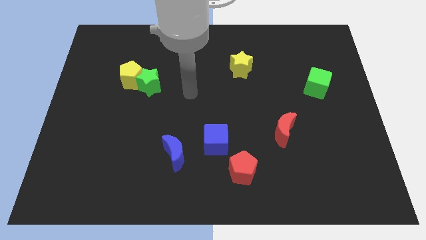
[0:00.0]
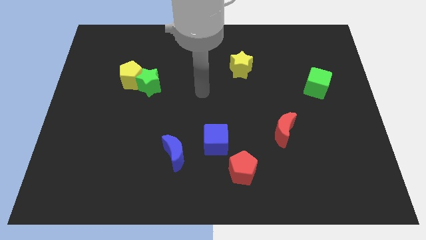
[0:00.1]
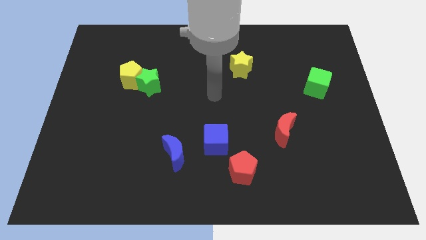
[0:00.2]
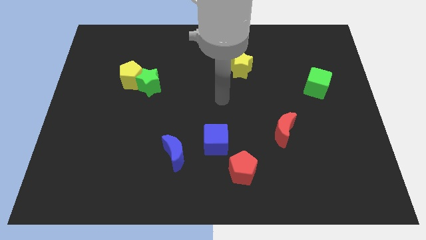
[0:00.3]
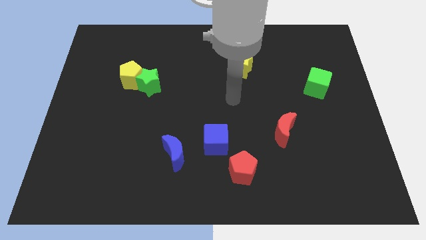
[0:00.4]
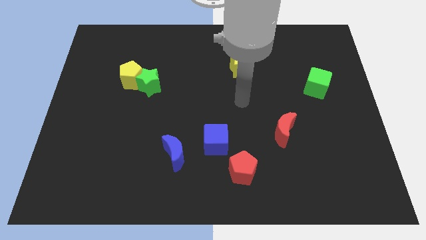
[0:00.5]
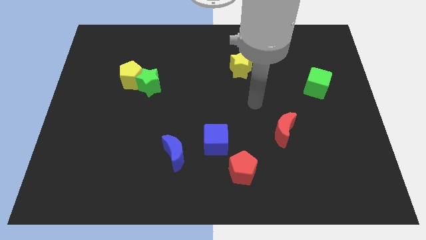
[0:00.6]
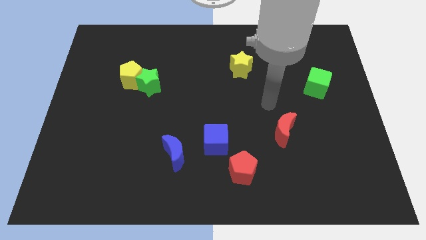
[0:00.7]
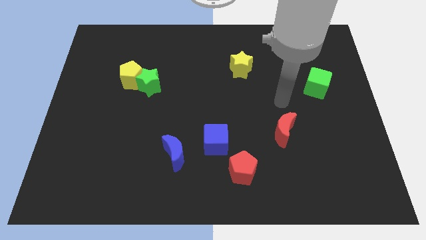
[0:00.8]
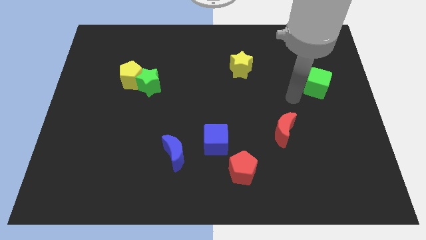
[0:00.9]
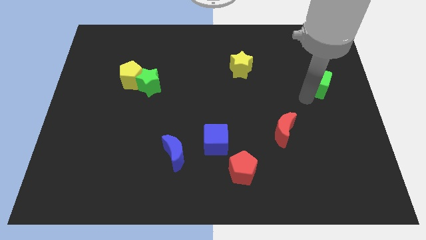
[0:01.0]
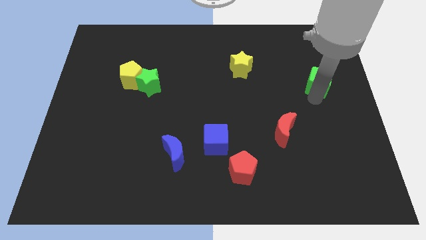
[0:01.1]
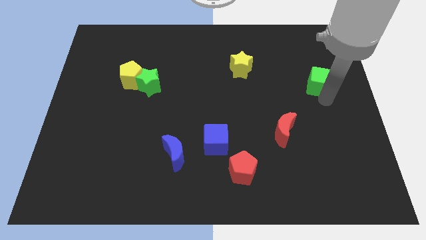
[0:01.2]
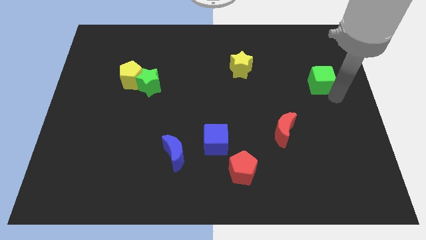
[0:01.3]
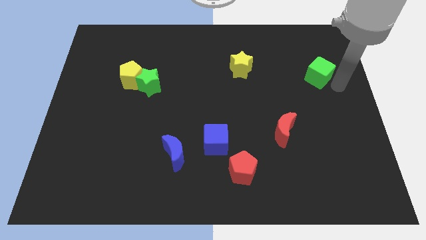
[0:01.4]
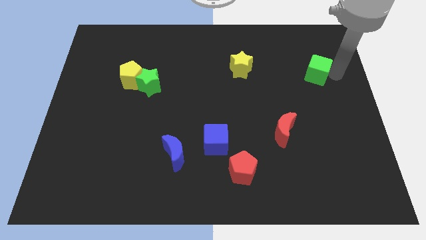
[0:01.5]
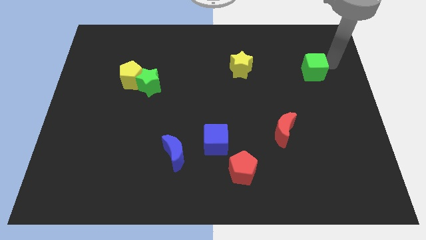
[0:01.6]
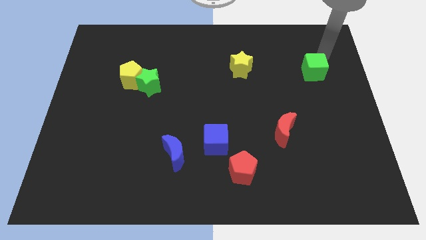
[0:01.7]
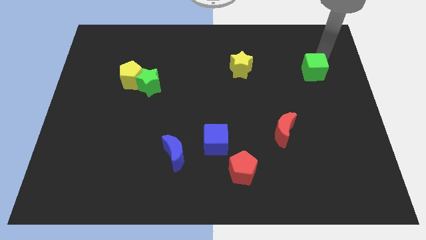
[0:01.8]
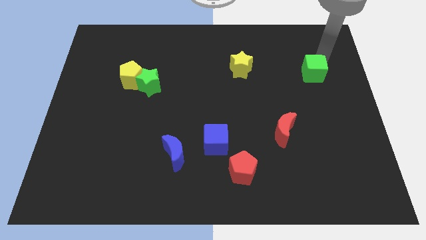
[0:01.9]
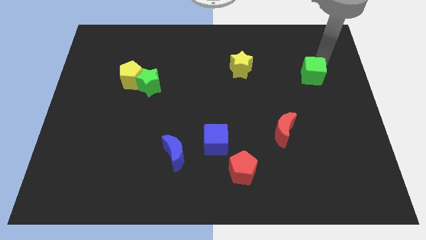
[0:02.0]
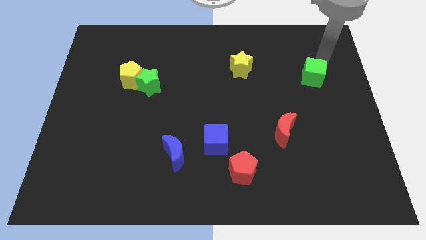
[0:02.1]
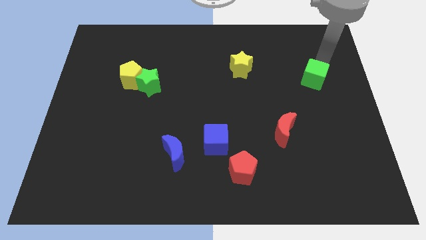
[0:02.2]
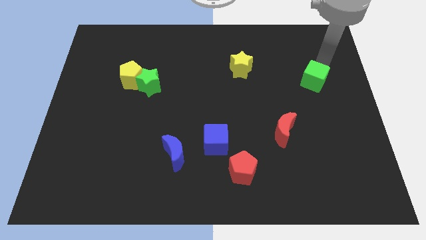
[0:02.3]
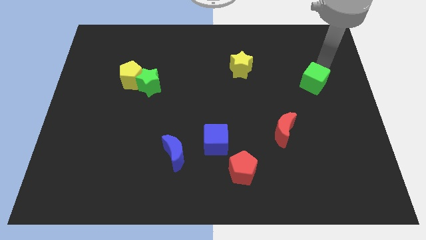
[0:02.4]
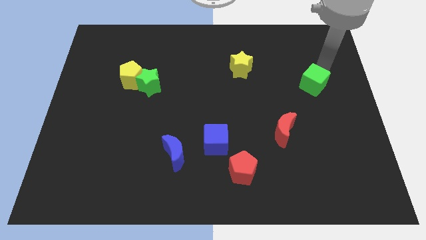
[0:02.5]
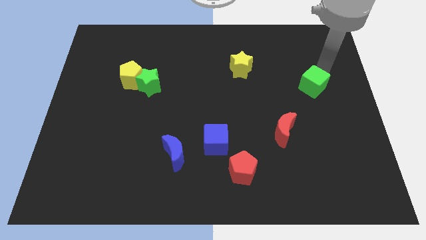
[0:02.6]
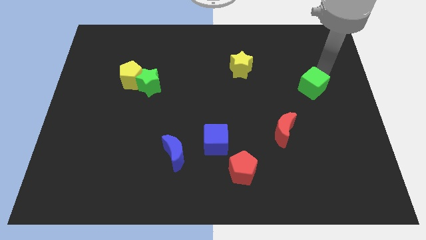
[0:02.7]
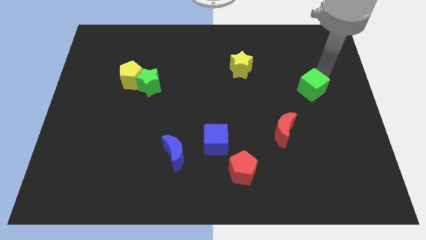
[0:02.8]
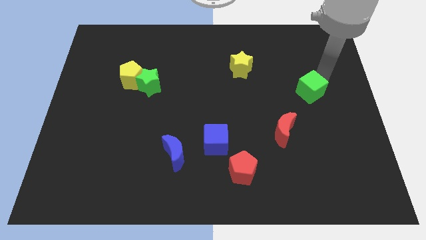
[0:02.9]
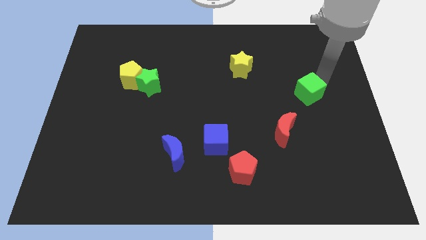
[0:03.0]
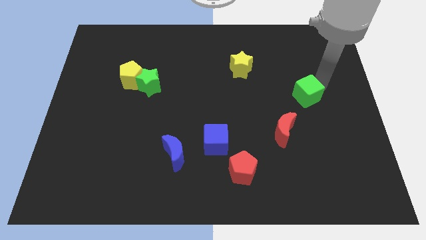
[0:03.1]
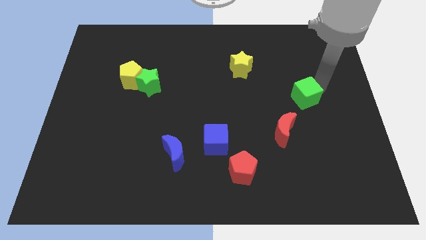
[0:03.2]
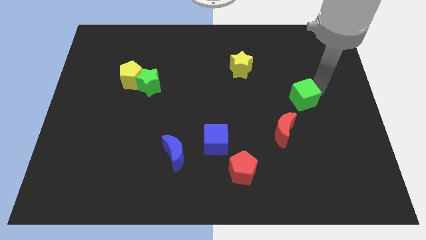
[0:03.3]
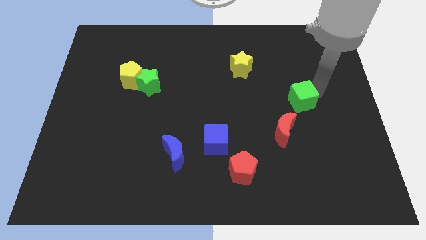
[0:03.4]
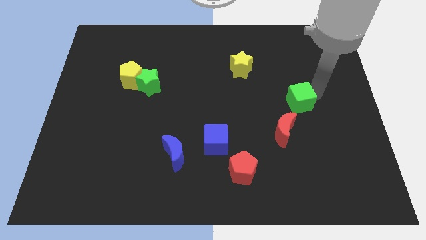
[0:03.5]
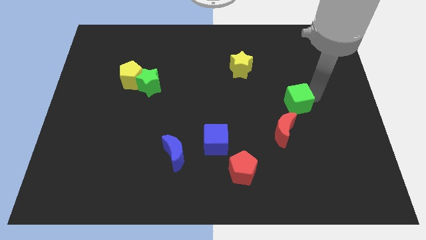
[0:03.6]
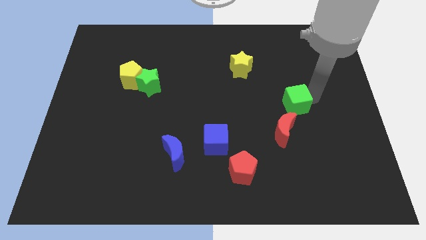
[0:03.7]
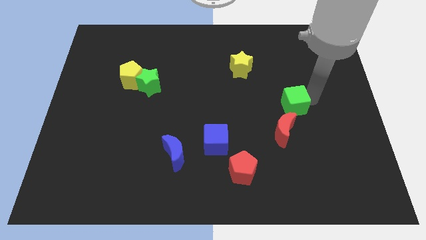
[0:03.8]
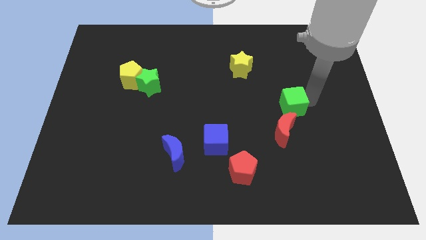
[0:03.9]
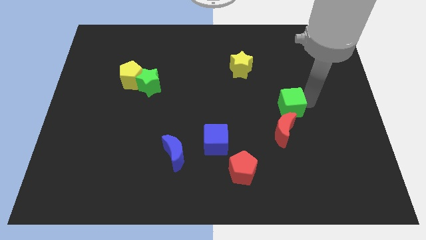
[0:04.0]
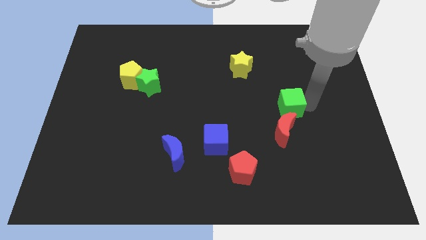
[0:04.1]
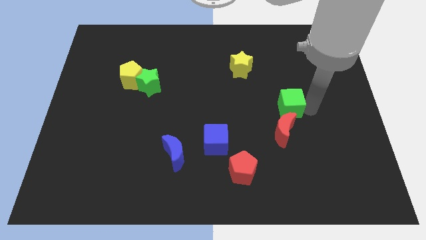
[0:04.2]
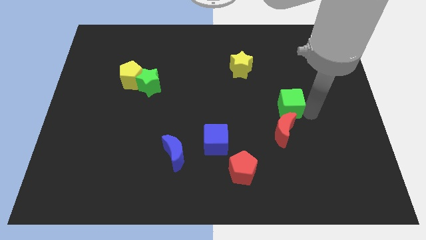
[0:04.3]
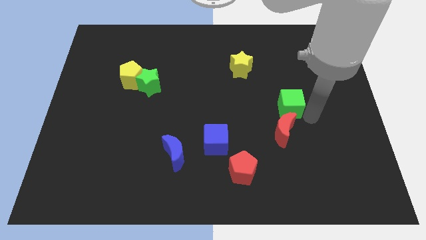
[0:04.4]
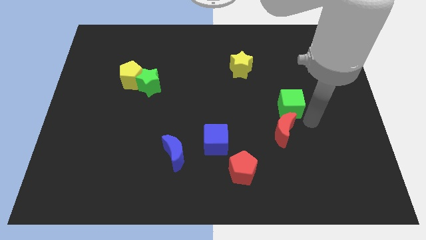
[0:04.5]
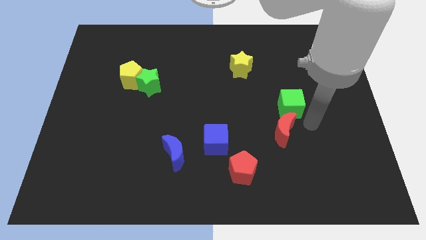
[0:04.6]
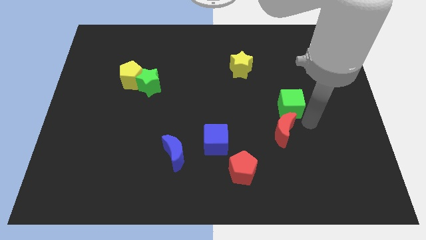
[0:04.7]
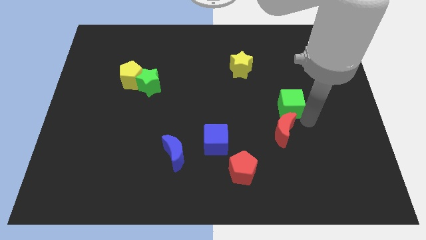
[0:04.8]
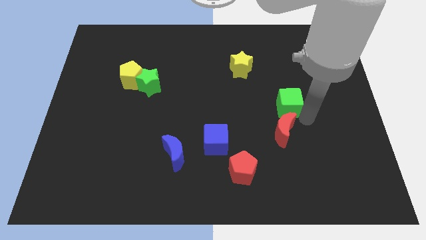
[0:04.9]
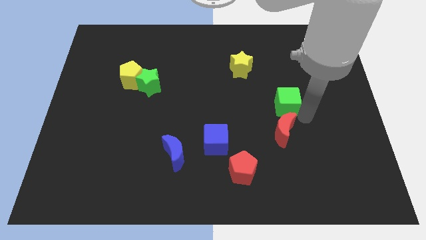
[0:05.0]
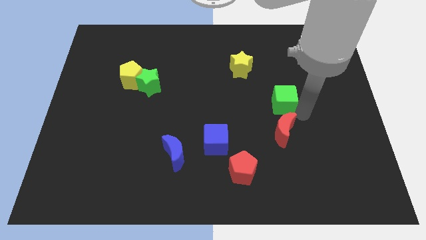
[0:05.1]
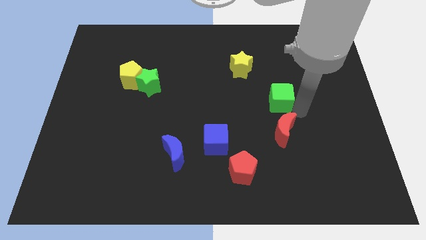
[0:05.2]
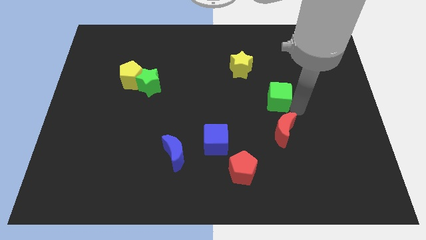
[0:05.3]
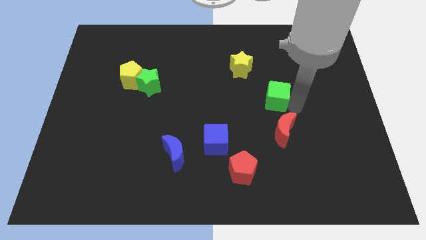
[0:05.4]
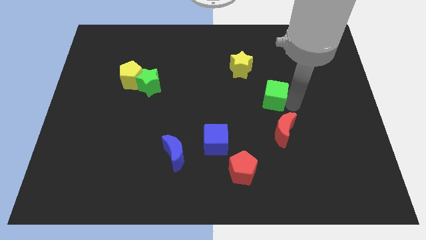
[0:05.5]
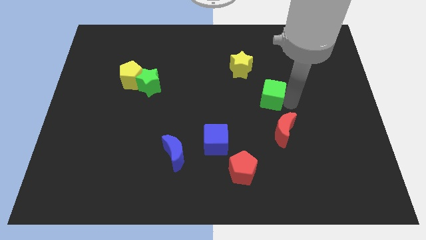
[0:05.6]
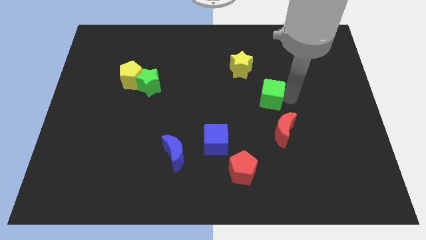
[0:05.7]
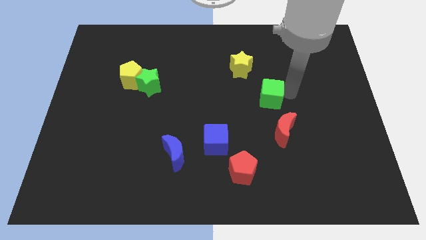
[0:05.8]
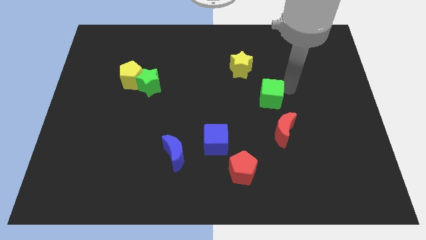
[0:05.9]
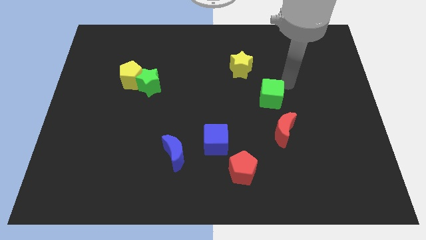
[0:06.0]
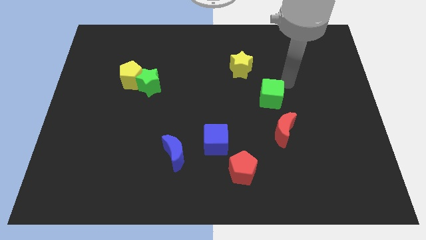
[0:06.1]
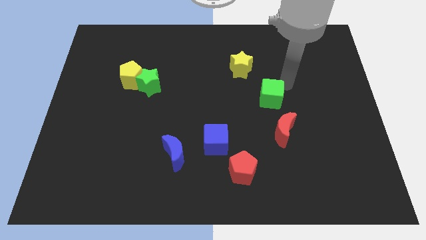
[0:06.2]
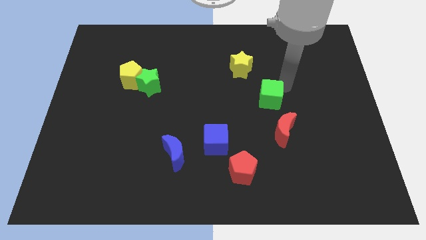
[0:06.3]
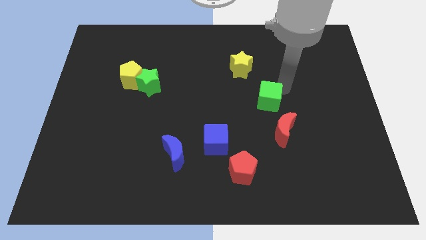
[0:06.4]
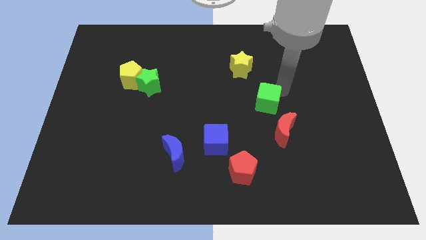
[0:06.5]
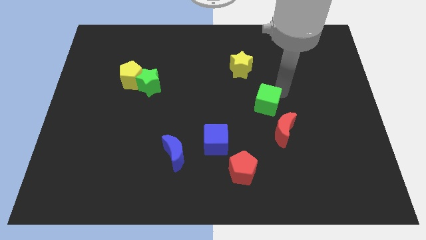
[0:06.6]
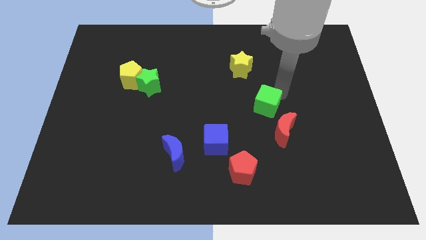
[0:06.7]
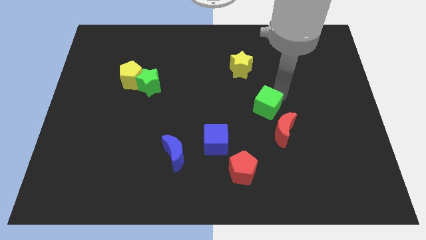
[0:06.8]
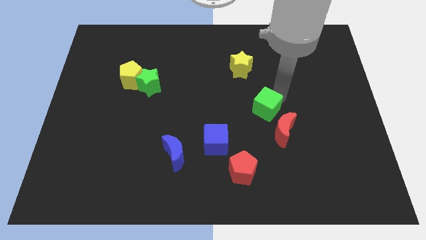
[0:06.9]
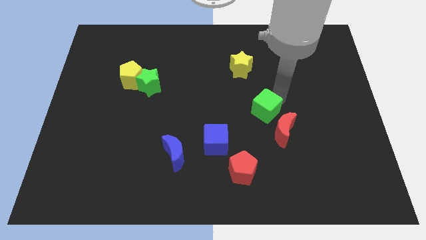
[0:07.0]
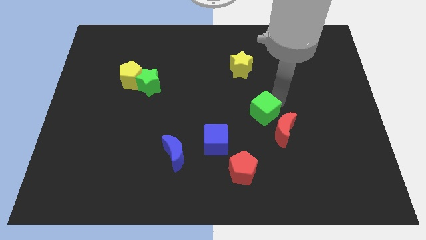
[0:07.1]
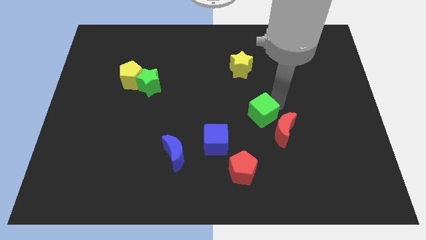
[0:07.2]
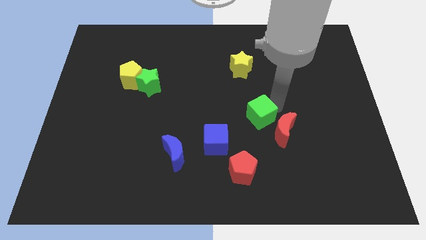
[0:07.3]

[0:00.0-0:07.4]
move the green cube to the top right side of the blue cube
